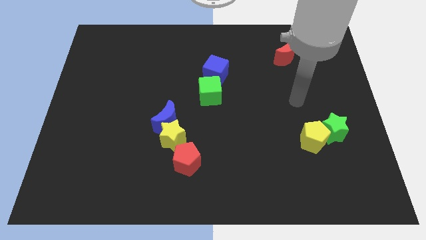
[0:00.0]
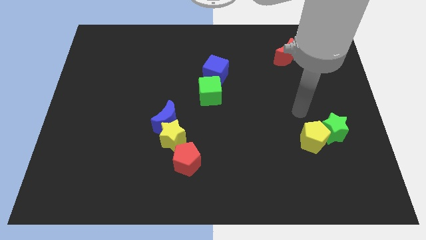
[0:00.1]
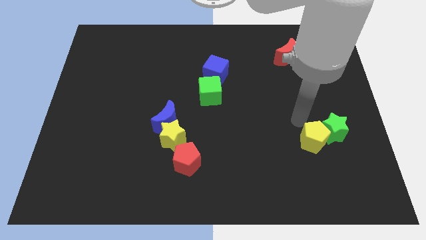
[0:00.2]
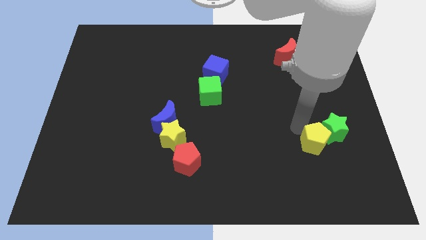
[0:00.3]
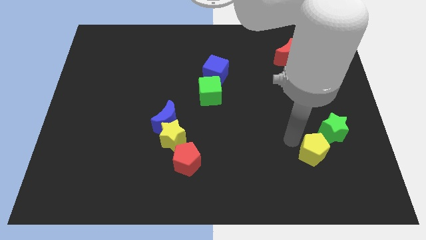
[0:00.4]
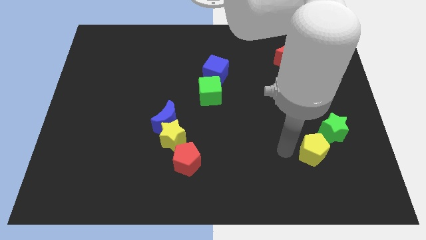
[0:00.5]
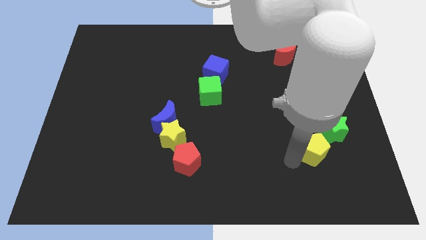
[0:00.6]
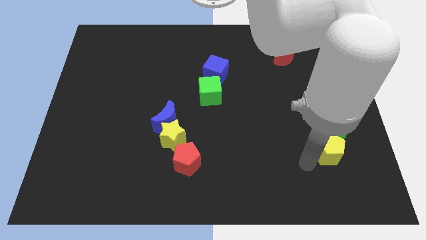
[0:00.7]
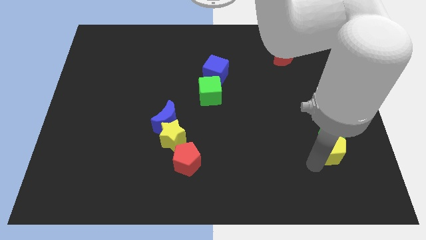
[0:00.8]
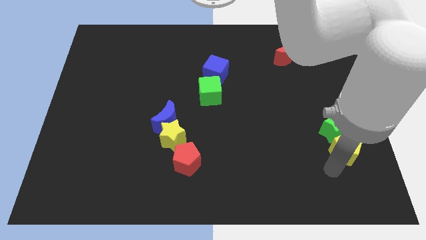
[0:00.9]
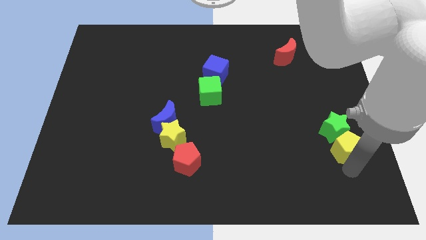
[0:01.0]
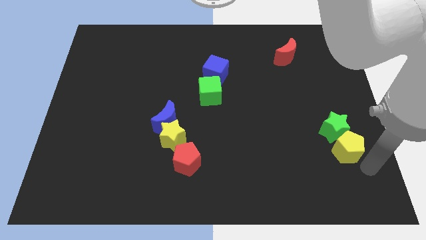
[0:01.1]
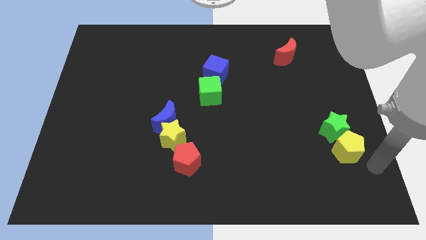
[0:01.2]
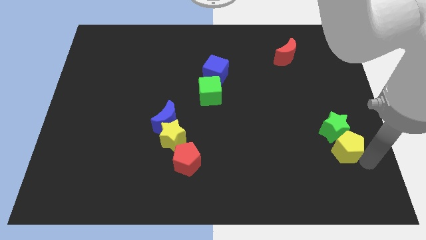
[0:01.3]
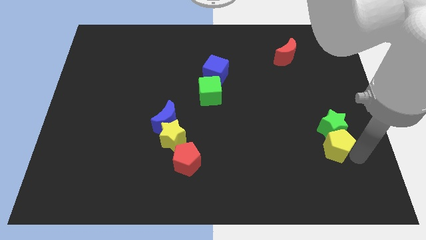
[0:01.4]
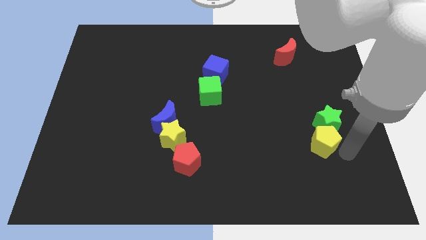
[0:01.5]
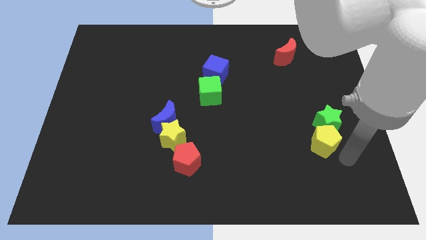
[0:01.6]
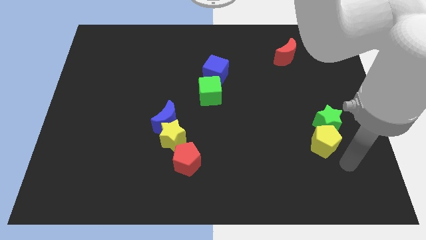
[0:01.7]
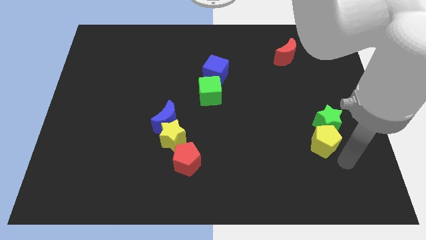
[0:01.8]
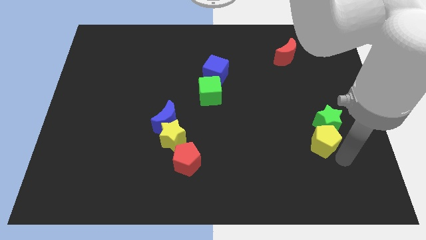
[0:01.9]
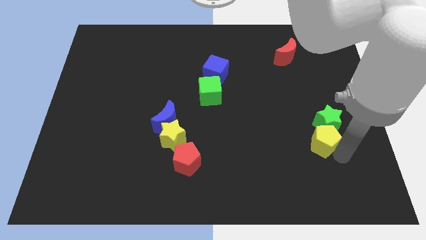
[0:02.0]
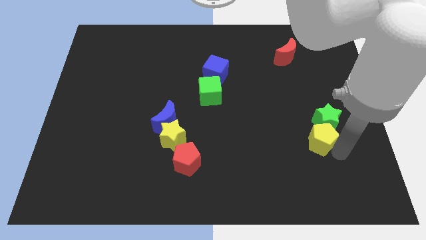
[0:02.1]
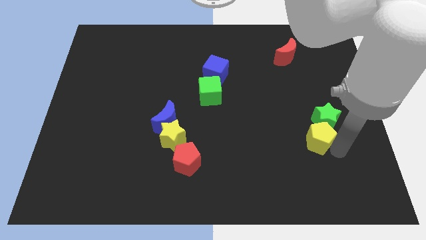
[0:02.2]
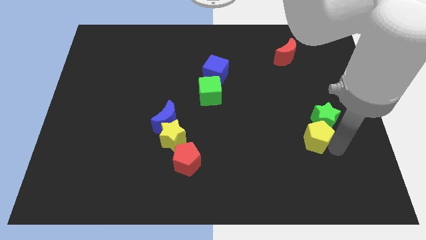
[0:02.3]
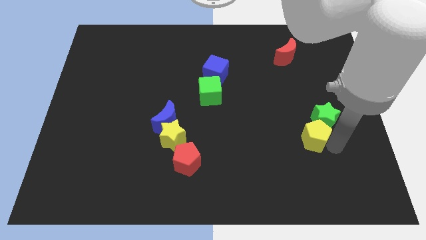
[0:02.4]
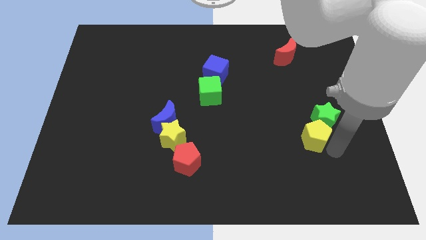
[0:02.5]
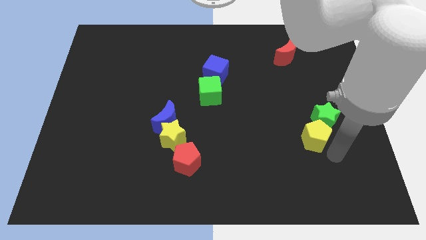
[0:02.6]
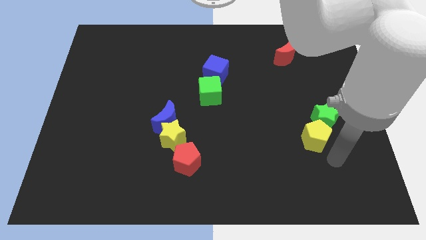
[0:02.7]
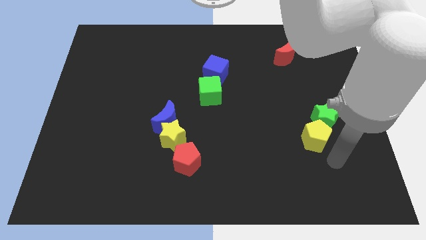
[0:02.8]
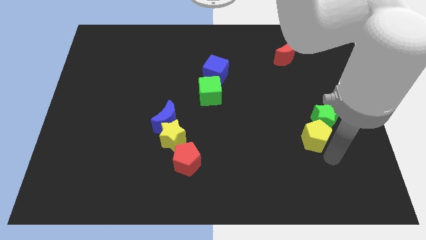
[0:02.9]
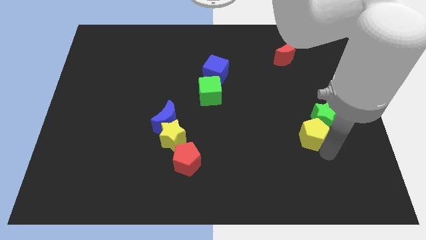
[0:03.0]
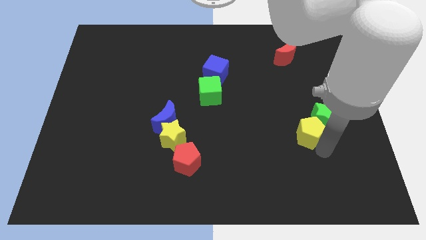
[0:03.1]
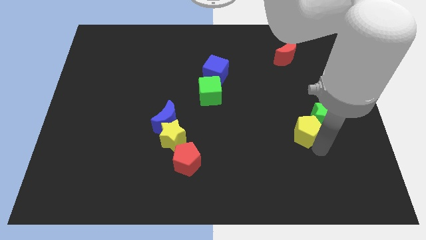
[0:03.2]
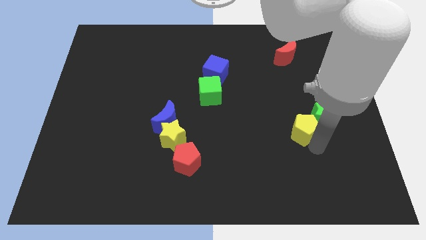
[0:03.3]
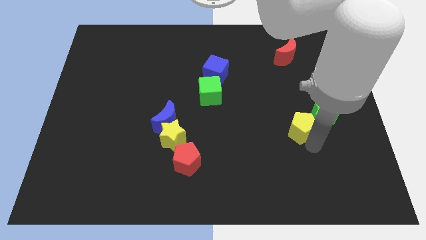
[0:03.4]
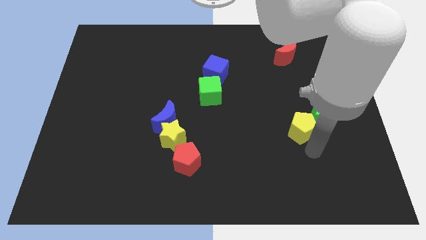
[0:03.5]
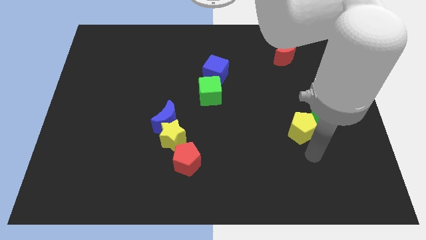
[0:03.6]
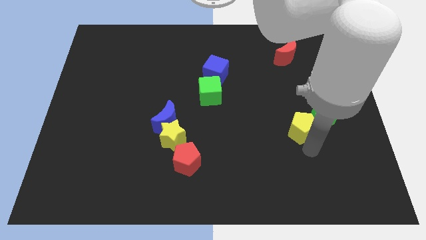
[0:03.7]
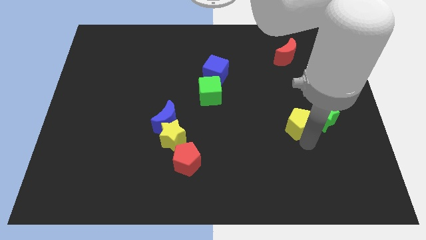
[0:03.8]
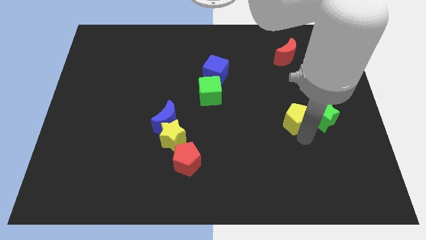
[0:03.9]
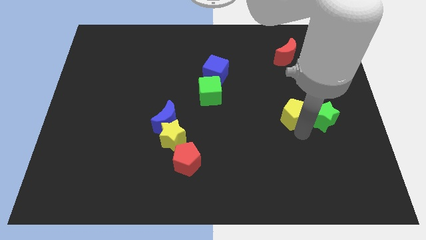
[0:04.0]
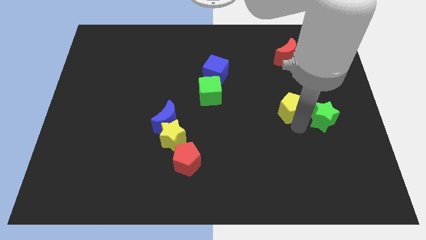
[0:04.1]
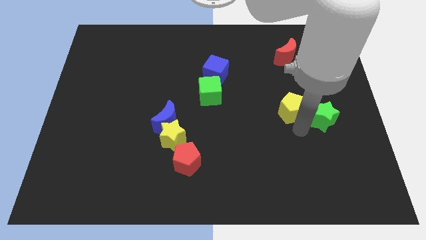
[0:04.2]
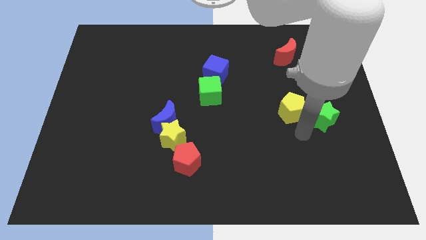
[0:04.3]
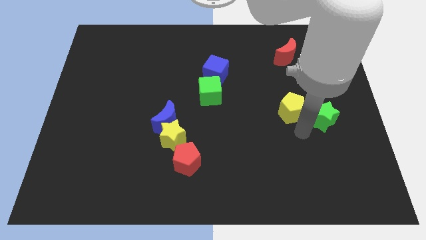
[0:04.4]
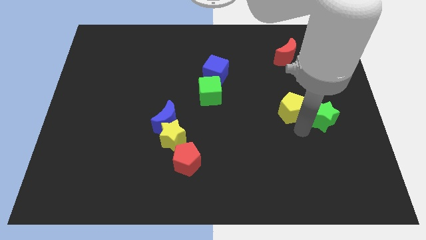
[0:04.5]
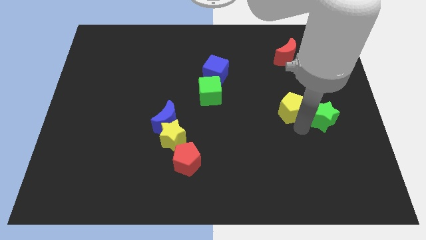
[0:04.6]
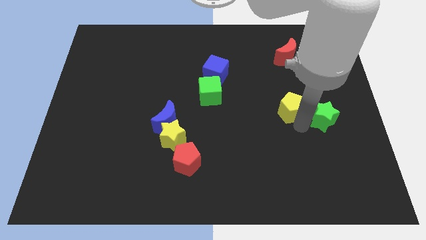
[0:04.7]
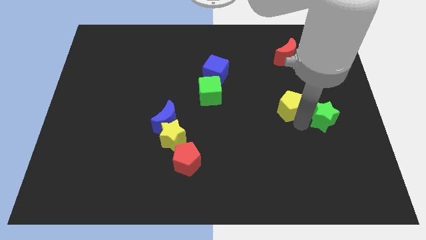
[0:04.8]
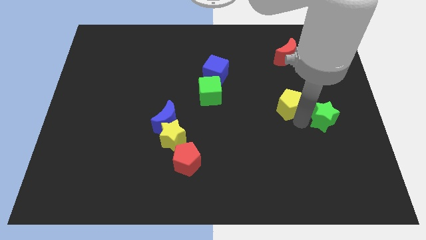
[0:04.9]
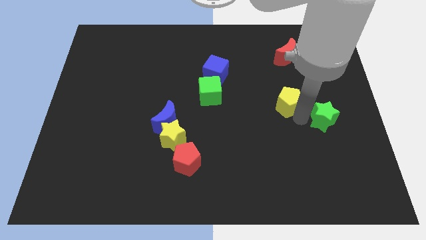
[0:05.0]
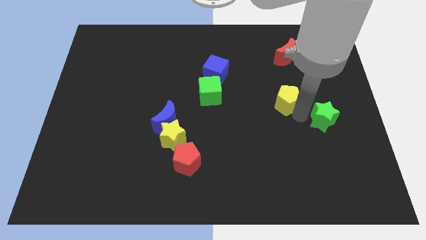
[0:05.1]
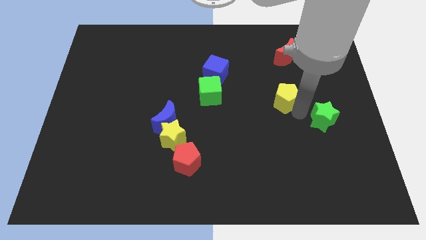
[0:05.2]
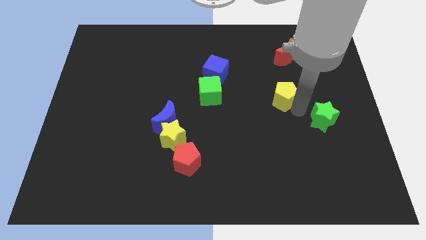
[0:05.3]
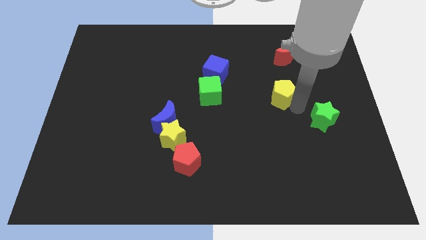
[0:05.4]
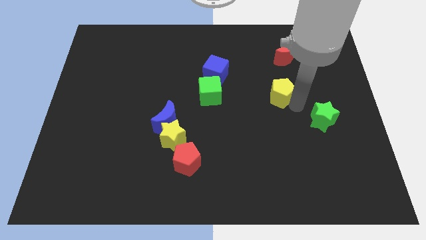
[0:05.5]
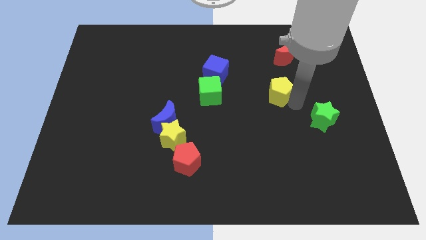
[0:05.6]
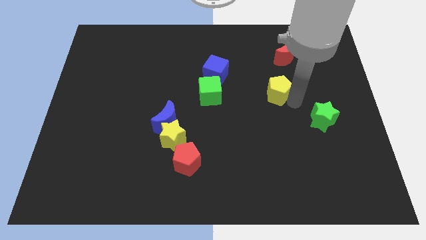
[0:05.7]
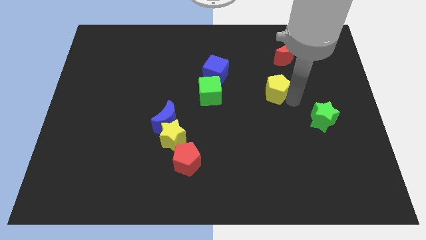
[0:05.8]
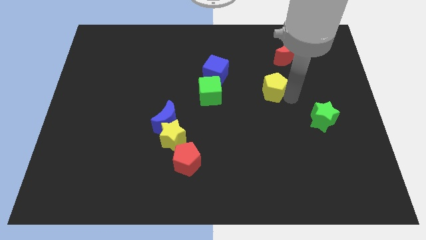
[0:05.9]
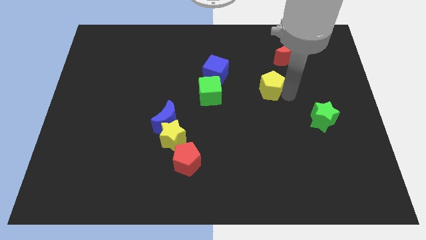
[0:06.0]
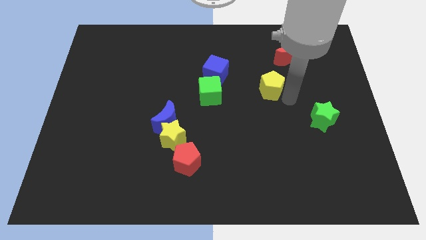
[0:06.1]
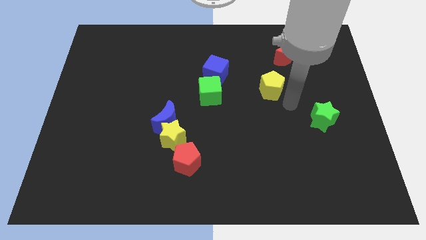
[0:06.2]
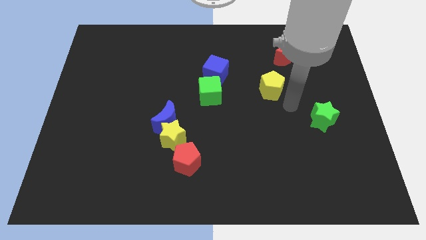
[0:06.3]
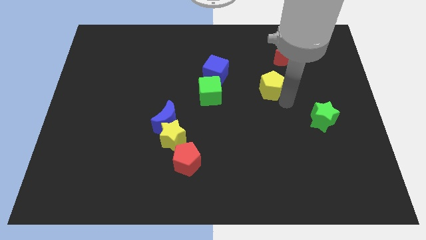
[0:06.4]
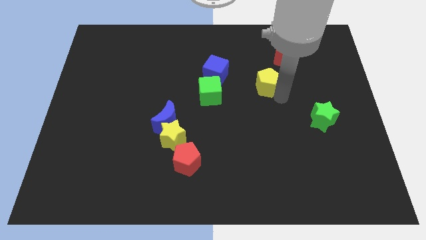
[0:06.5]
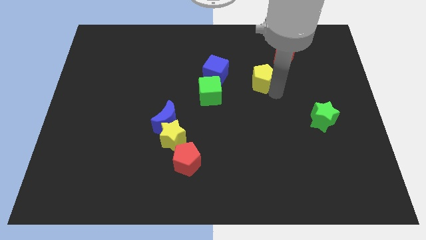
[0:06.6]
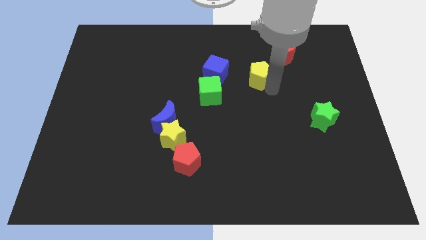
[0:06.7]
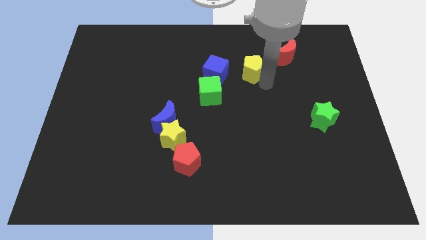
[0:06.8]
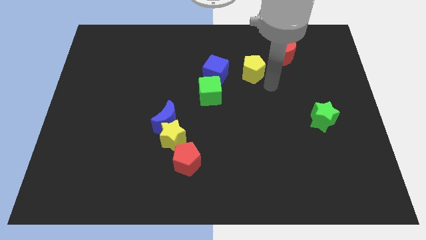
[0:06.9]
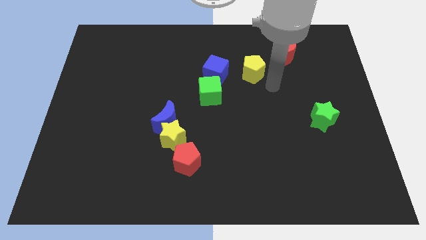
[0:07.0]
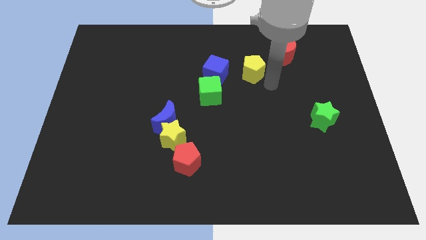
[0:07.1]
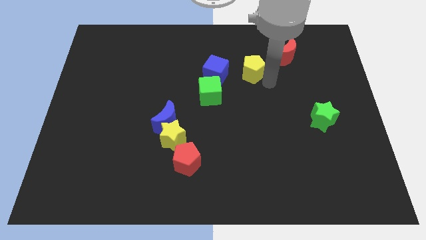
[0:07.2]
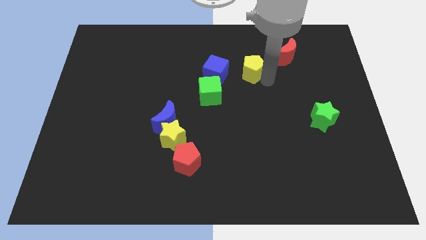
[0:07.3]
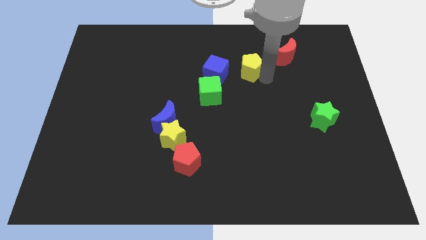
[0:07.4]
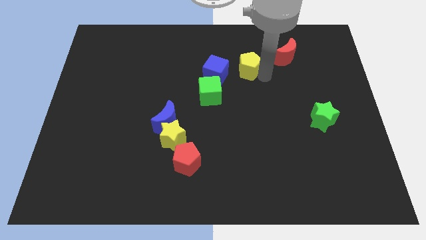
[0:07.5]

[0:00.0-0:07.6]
push the yellow pentagon to the top right side of the blue cube
